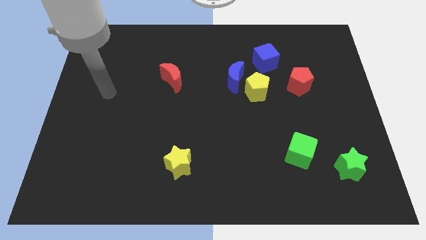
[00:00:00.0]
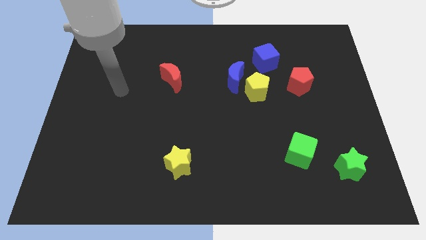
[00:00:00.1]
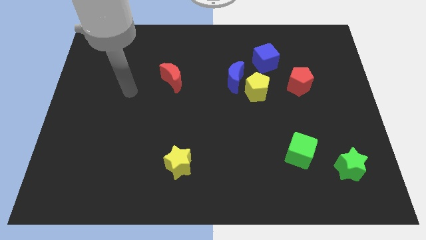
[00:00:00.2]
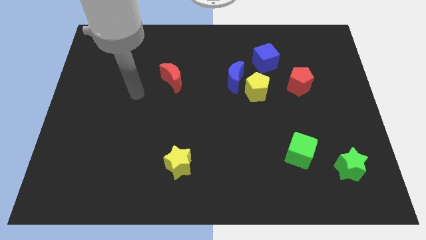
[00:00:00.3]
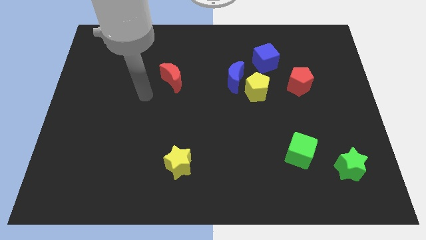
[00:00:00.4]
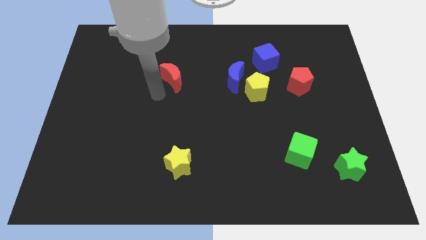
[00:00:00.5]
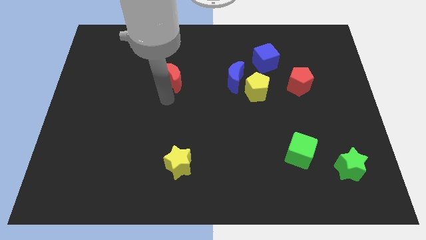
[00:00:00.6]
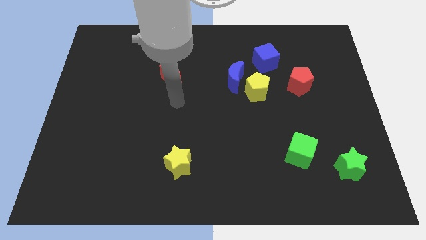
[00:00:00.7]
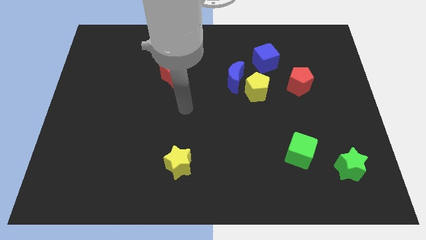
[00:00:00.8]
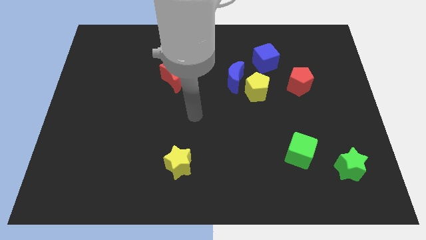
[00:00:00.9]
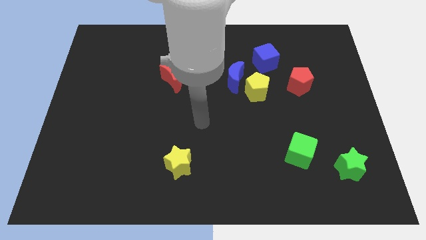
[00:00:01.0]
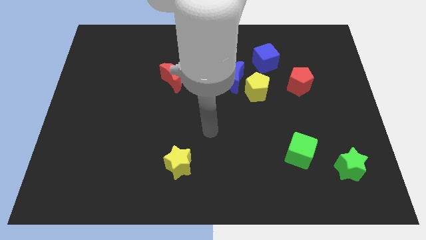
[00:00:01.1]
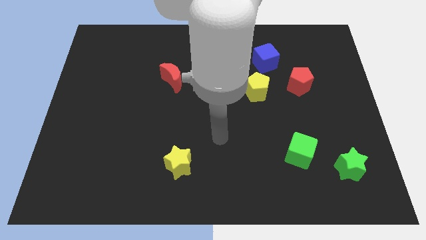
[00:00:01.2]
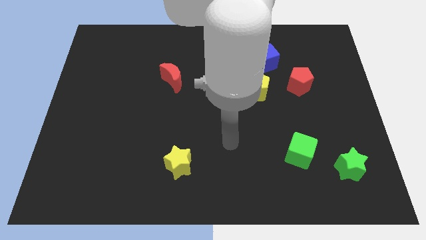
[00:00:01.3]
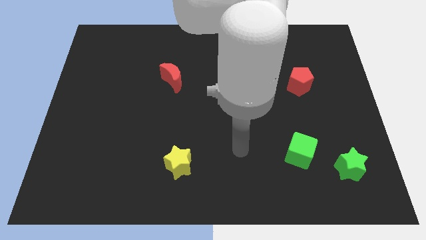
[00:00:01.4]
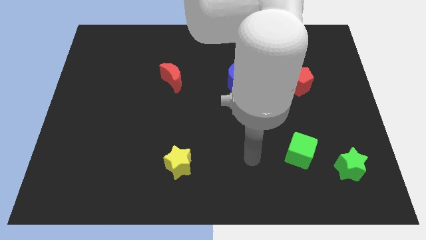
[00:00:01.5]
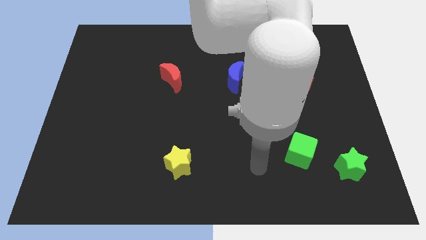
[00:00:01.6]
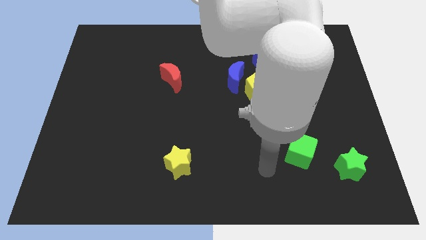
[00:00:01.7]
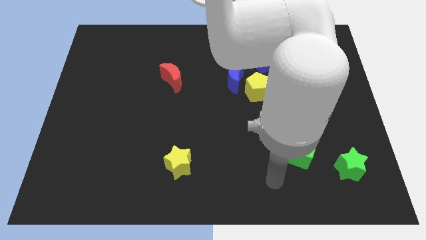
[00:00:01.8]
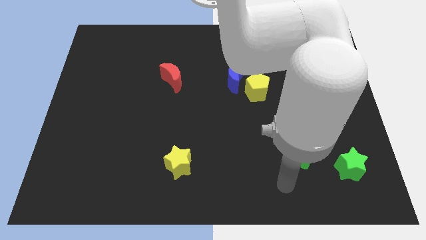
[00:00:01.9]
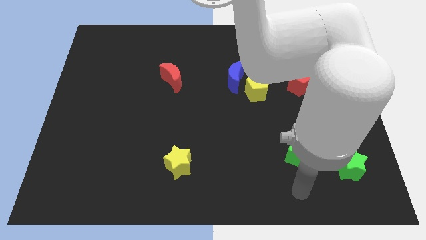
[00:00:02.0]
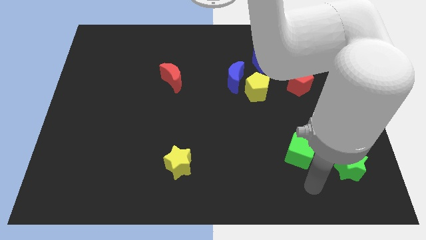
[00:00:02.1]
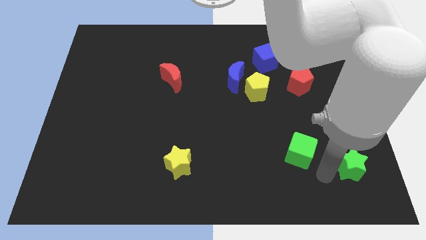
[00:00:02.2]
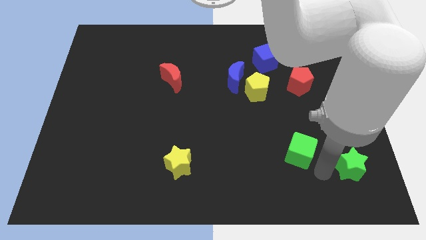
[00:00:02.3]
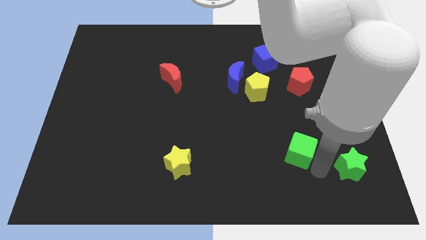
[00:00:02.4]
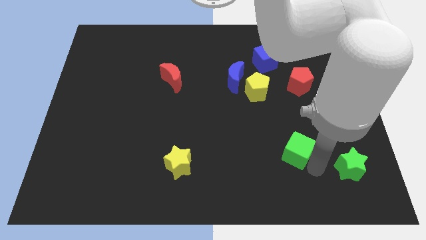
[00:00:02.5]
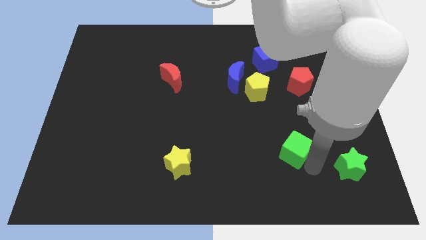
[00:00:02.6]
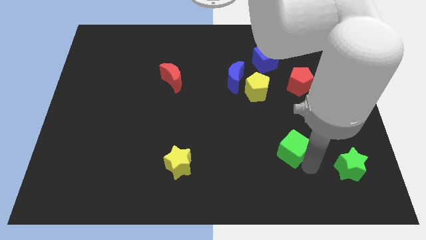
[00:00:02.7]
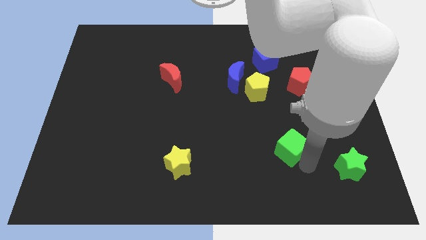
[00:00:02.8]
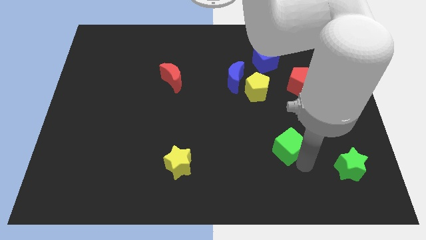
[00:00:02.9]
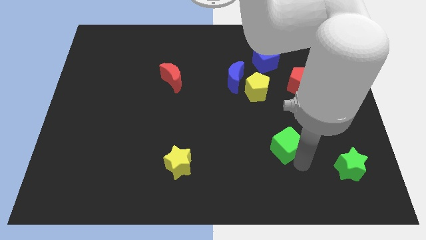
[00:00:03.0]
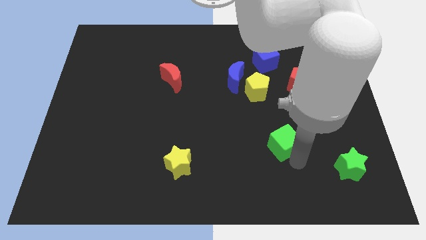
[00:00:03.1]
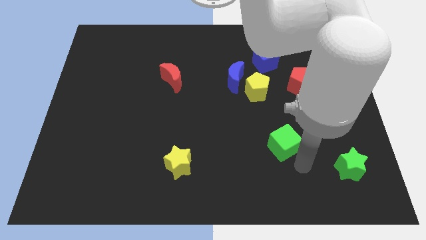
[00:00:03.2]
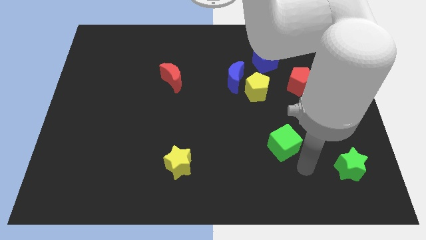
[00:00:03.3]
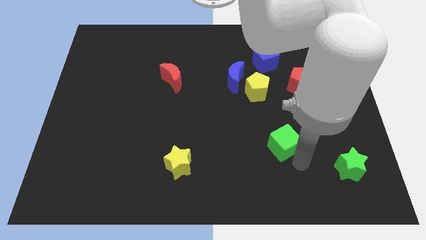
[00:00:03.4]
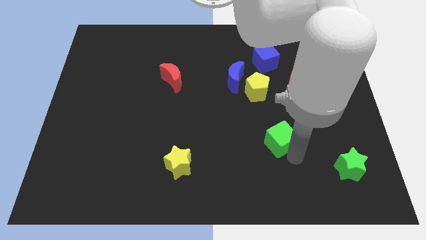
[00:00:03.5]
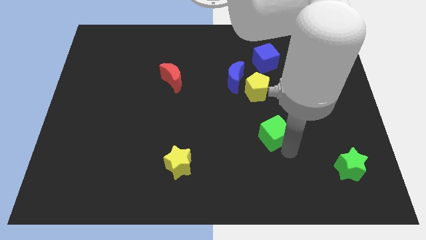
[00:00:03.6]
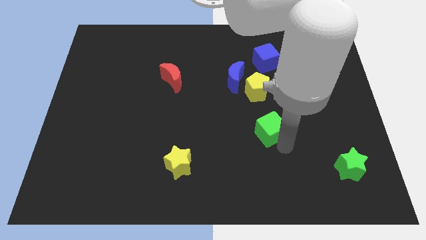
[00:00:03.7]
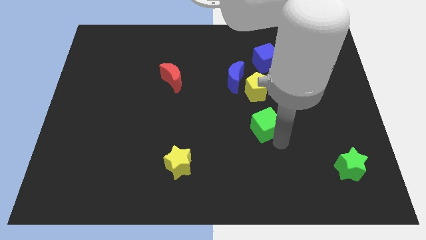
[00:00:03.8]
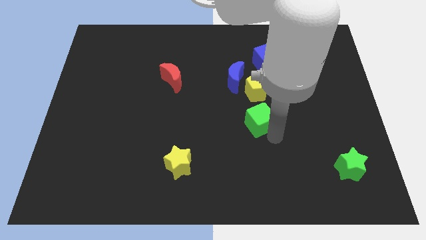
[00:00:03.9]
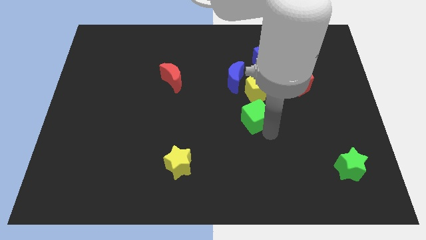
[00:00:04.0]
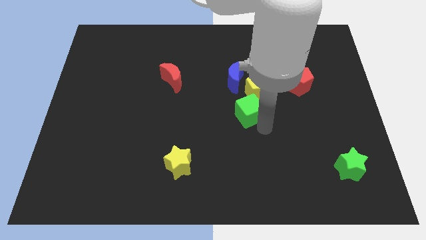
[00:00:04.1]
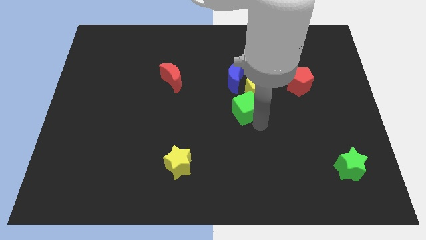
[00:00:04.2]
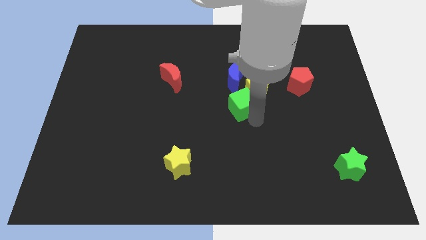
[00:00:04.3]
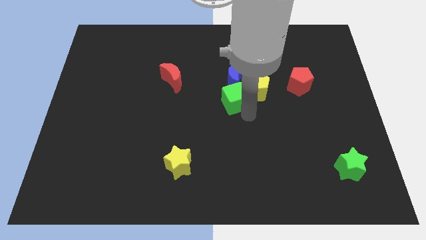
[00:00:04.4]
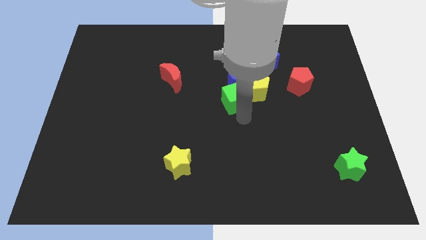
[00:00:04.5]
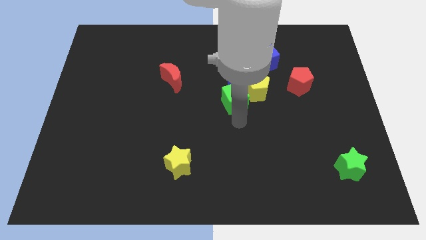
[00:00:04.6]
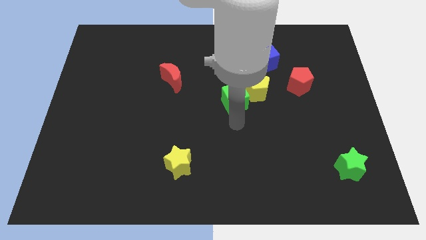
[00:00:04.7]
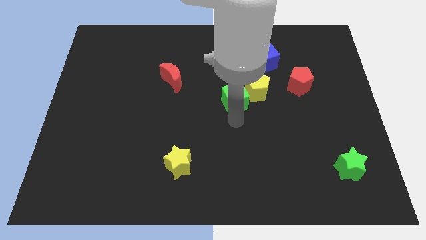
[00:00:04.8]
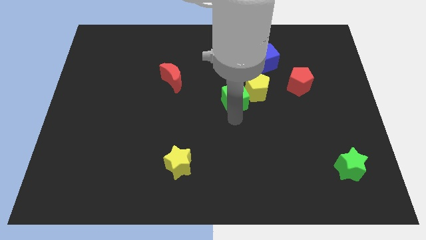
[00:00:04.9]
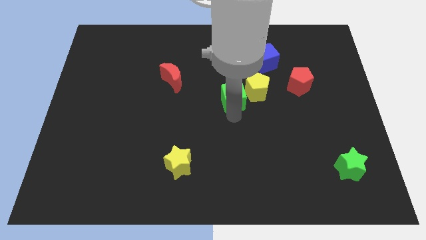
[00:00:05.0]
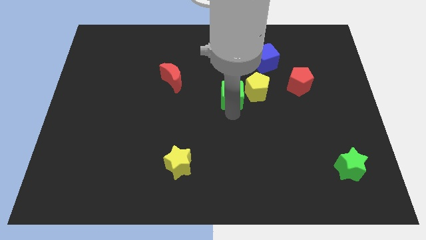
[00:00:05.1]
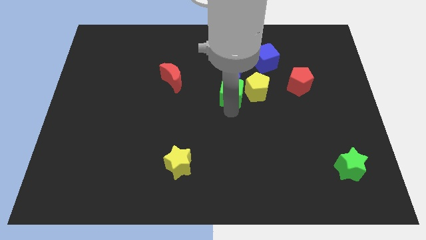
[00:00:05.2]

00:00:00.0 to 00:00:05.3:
push the green cube next to the blue moon

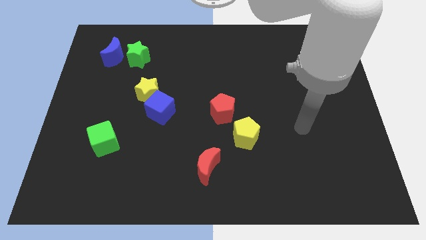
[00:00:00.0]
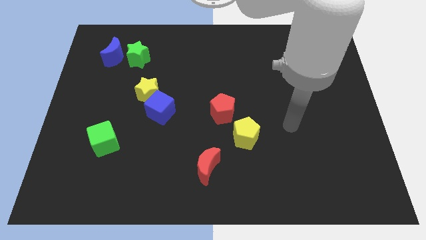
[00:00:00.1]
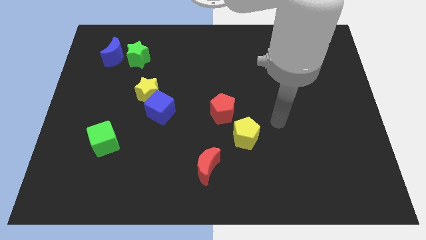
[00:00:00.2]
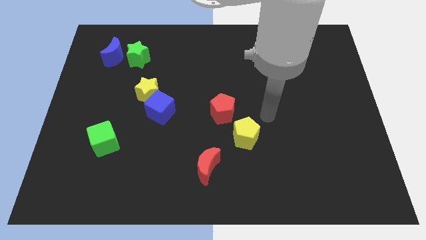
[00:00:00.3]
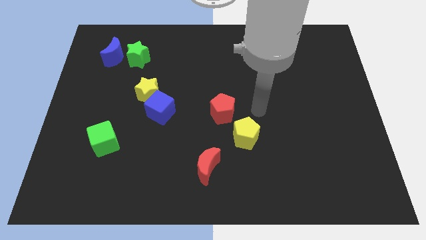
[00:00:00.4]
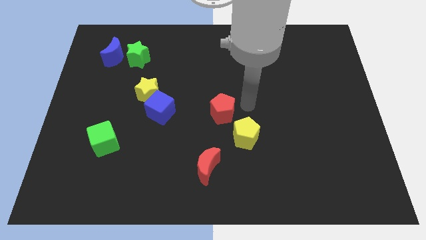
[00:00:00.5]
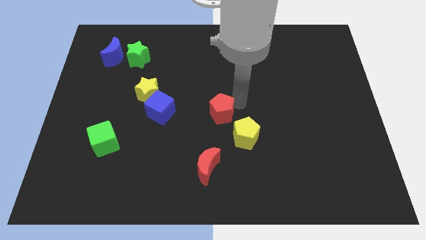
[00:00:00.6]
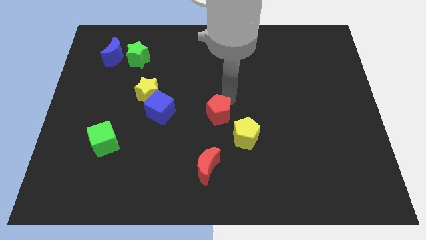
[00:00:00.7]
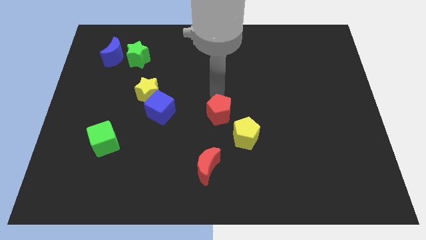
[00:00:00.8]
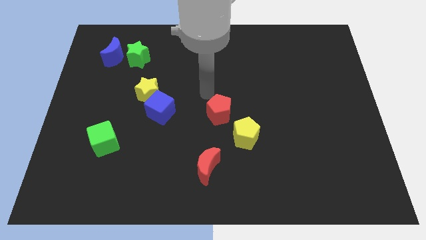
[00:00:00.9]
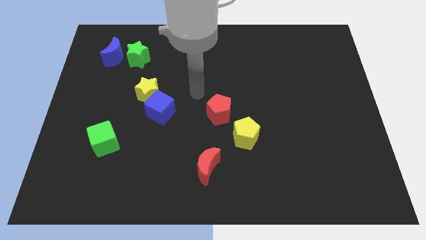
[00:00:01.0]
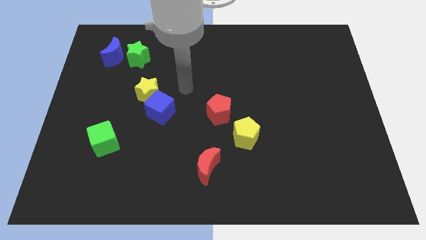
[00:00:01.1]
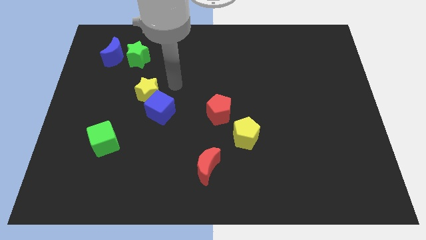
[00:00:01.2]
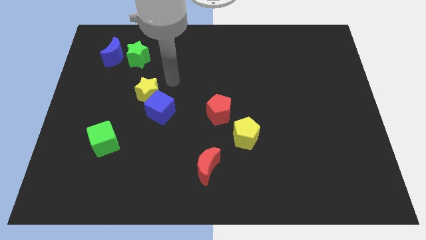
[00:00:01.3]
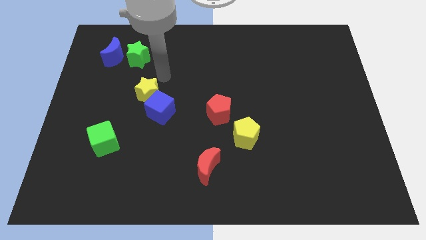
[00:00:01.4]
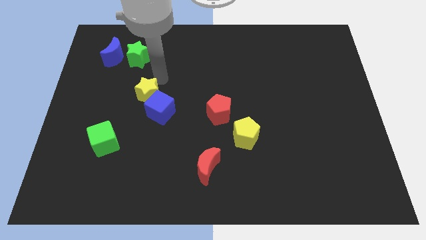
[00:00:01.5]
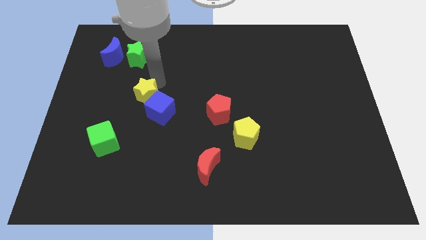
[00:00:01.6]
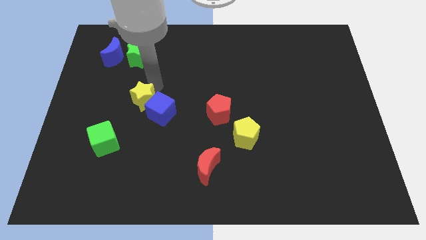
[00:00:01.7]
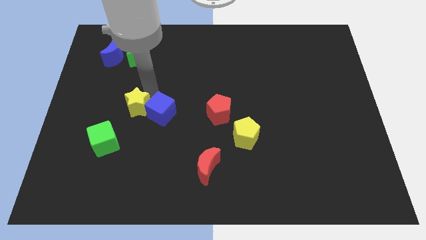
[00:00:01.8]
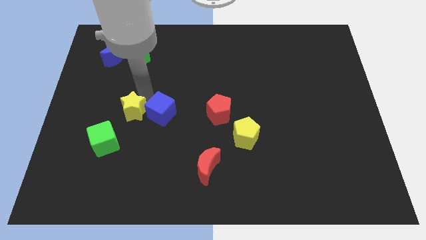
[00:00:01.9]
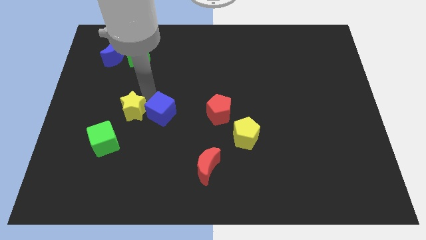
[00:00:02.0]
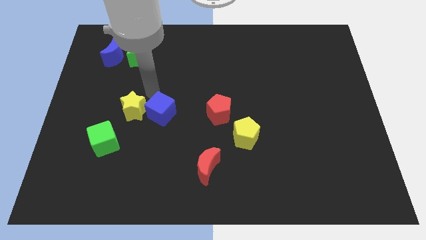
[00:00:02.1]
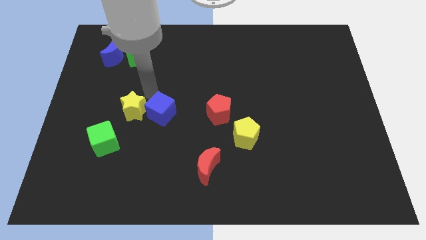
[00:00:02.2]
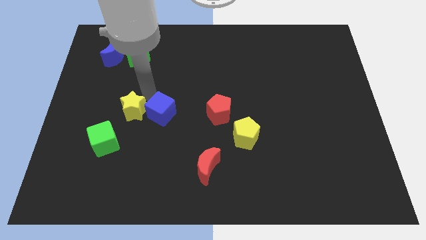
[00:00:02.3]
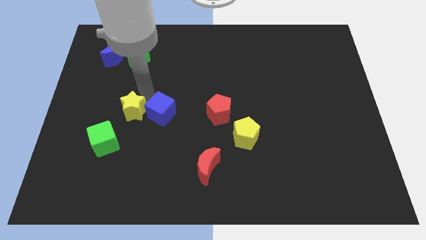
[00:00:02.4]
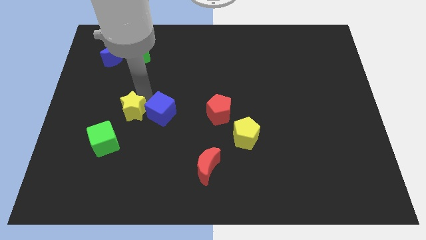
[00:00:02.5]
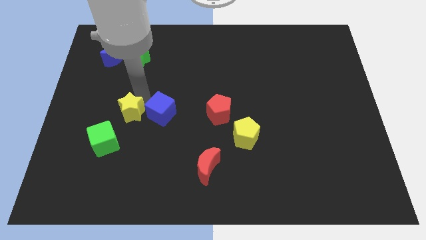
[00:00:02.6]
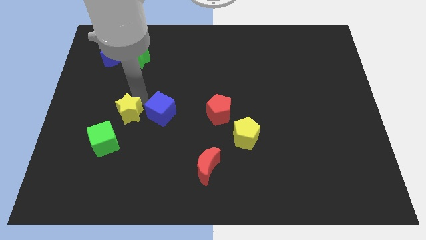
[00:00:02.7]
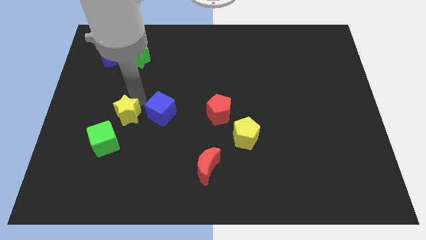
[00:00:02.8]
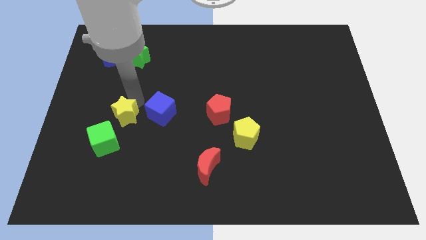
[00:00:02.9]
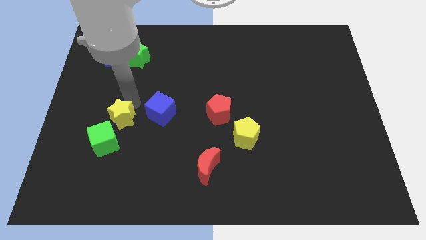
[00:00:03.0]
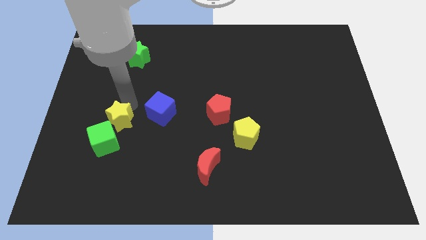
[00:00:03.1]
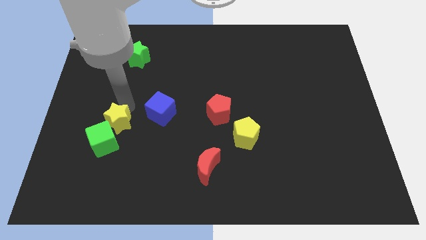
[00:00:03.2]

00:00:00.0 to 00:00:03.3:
push the yellow star to the green cube
